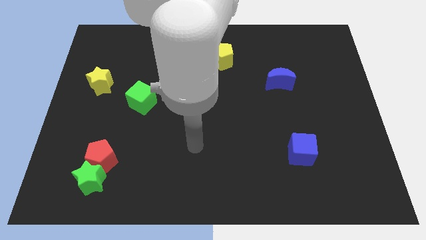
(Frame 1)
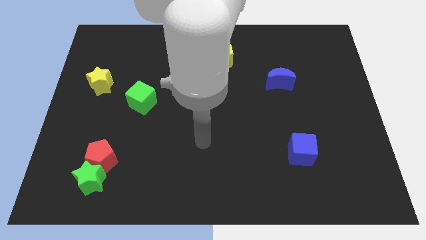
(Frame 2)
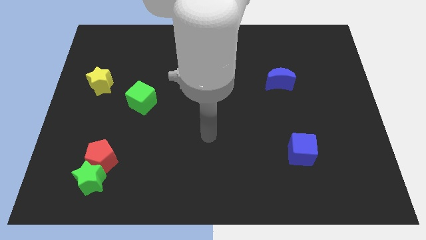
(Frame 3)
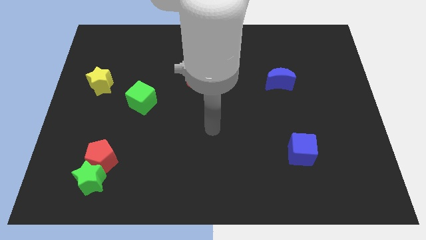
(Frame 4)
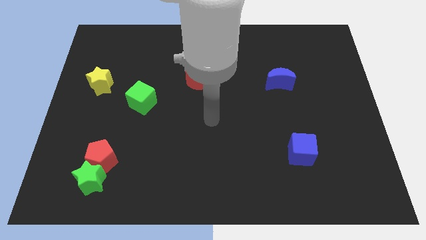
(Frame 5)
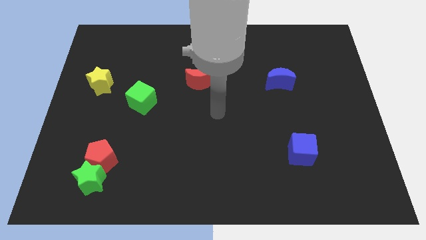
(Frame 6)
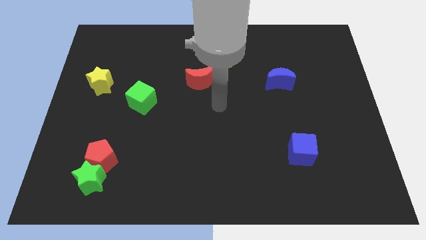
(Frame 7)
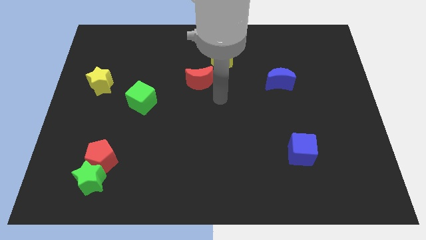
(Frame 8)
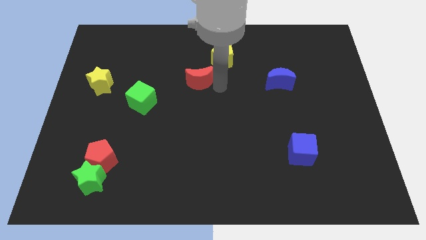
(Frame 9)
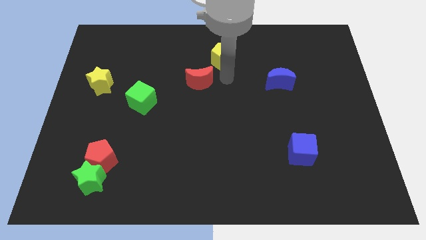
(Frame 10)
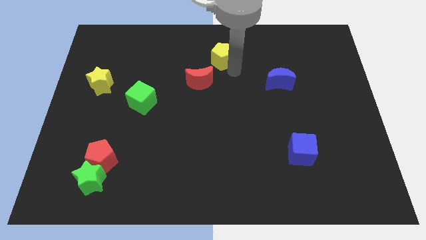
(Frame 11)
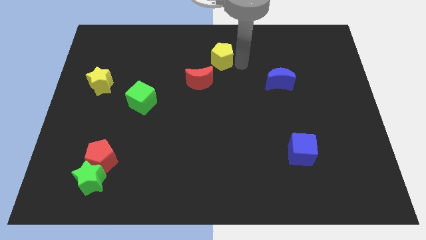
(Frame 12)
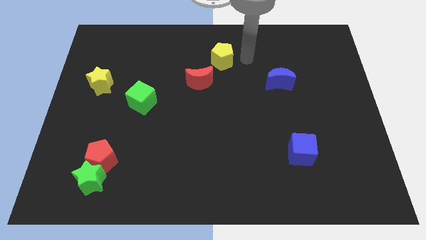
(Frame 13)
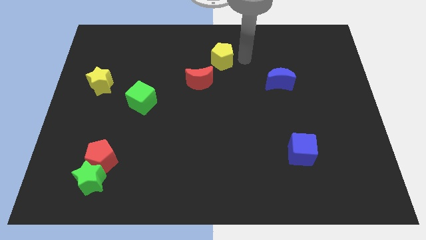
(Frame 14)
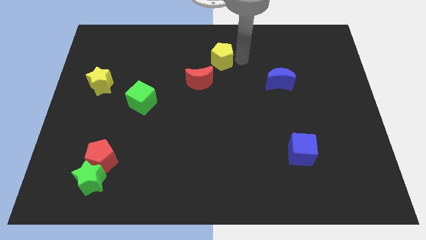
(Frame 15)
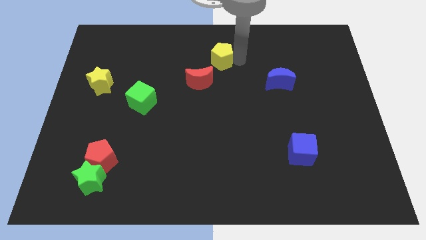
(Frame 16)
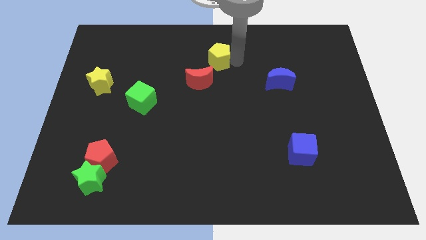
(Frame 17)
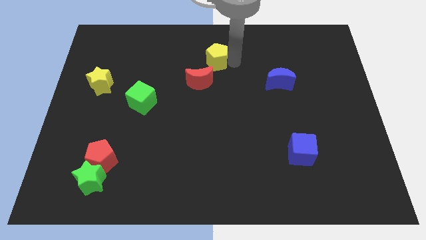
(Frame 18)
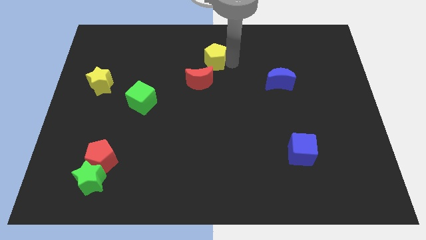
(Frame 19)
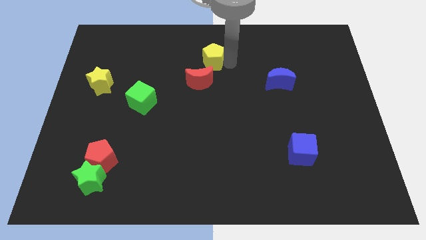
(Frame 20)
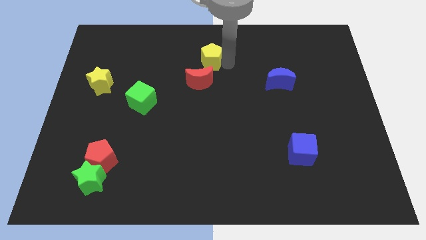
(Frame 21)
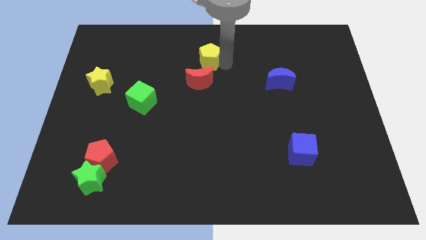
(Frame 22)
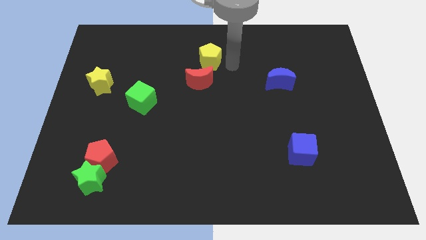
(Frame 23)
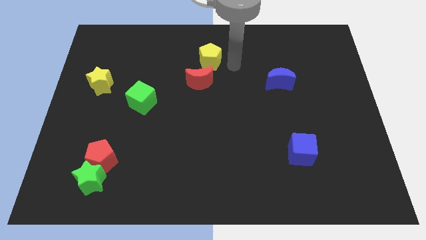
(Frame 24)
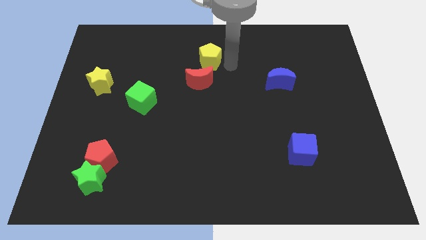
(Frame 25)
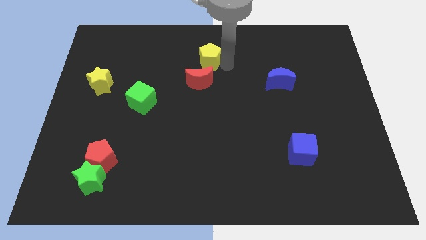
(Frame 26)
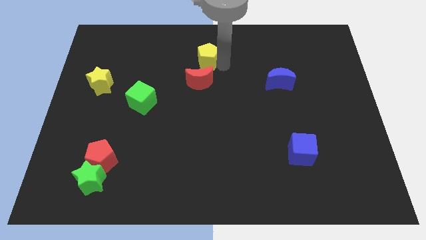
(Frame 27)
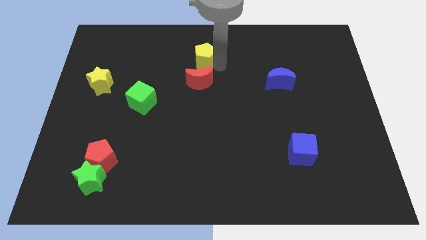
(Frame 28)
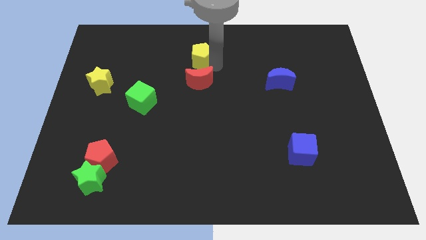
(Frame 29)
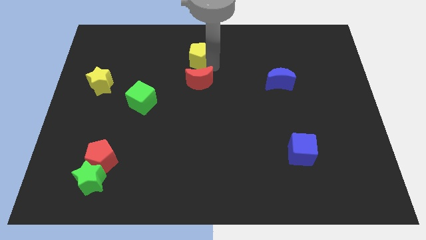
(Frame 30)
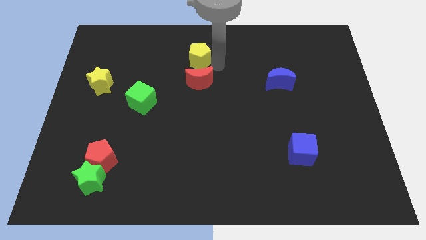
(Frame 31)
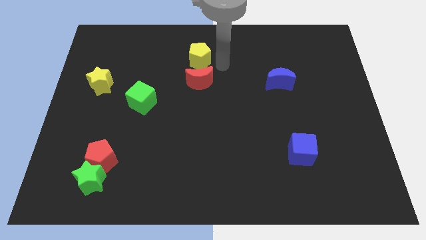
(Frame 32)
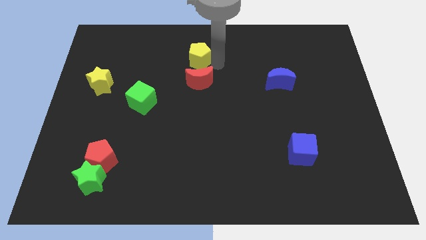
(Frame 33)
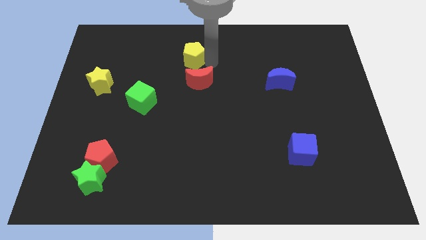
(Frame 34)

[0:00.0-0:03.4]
slide the yellow pentagon a little bit to the left

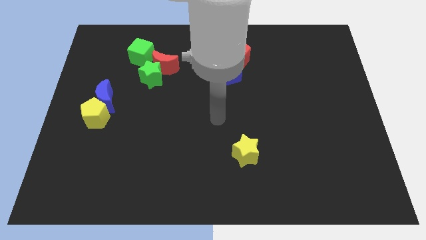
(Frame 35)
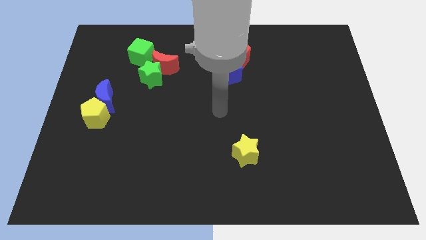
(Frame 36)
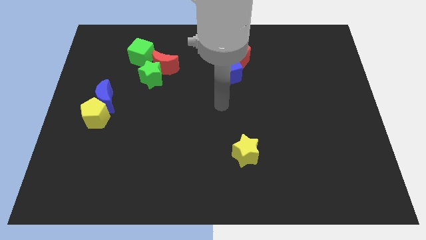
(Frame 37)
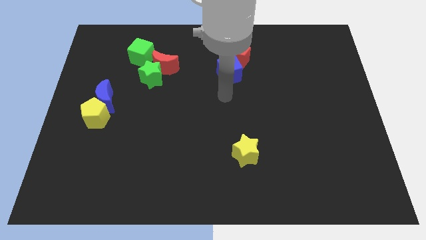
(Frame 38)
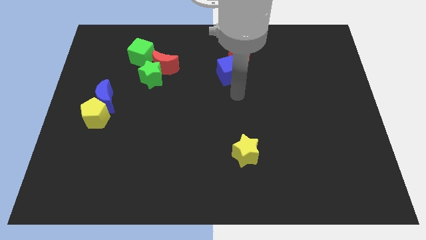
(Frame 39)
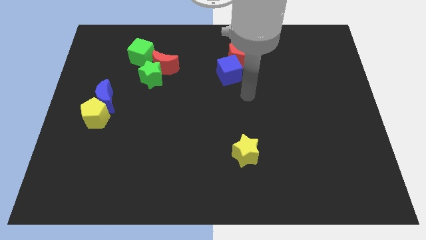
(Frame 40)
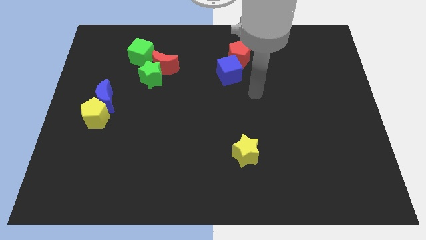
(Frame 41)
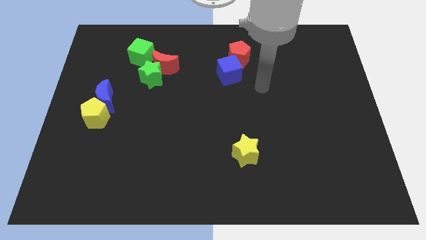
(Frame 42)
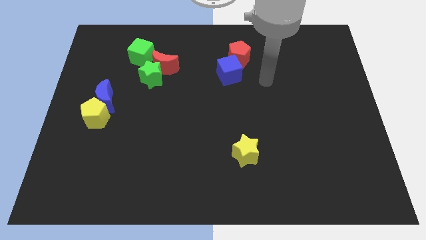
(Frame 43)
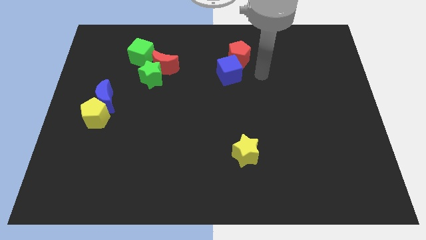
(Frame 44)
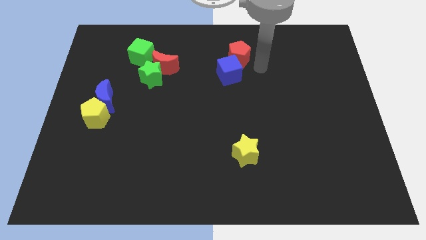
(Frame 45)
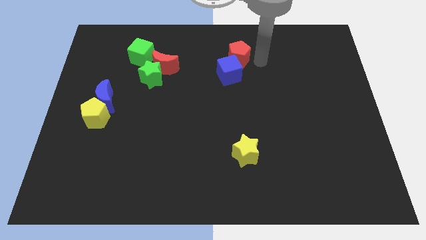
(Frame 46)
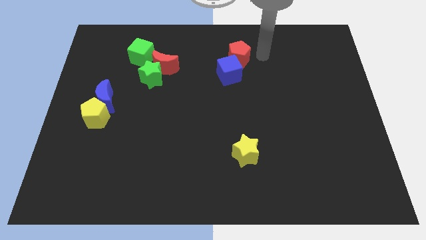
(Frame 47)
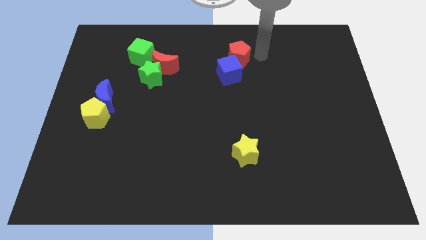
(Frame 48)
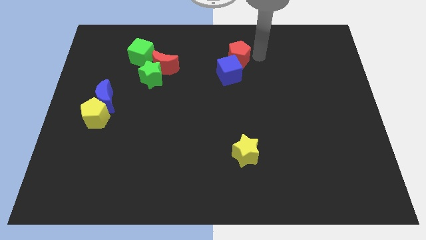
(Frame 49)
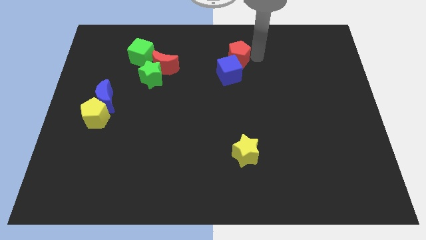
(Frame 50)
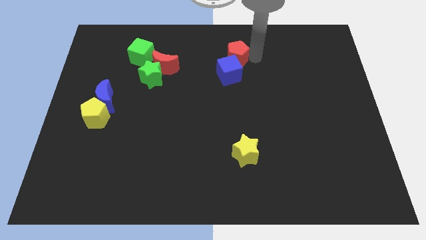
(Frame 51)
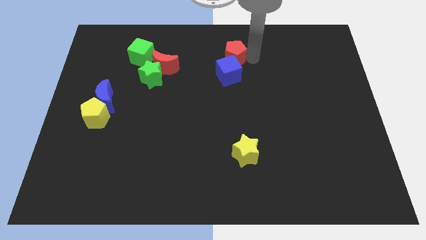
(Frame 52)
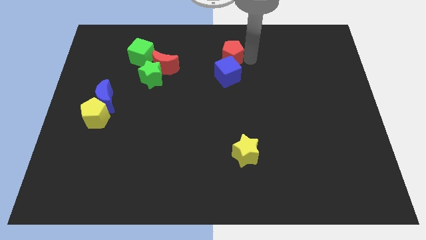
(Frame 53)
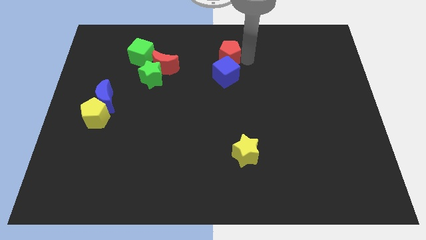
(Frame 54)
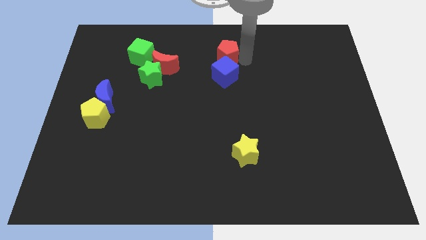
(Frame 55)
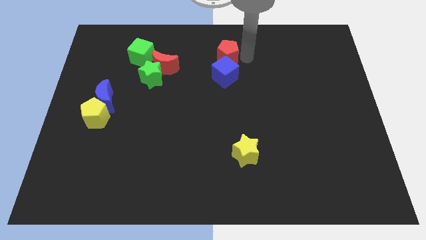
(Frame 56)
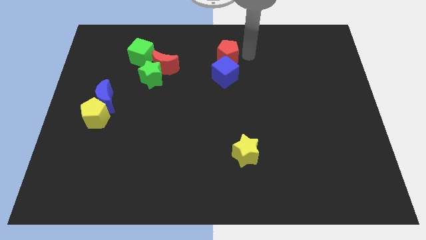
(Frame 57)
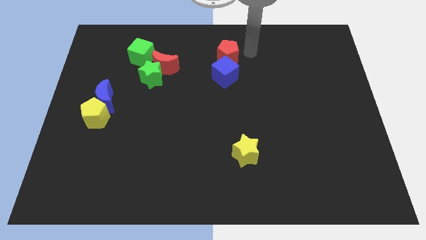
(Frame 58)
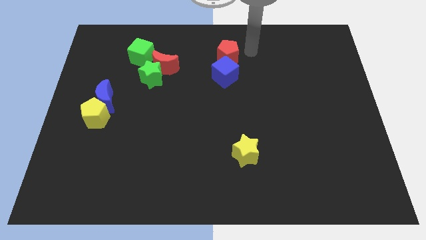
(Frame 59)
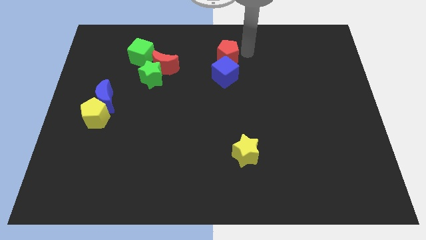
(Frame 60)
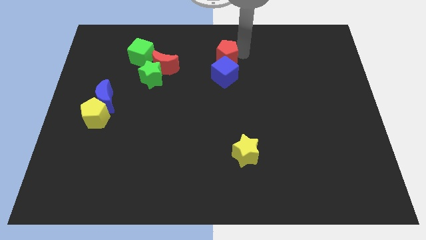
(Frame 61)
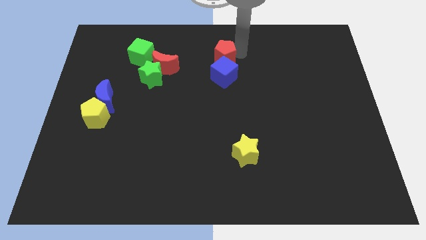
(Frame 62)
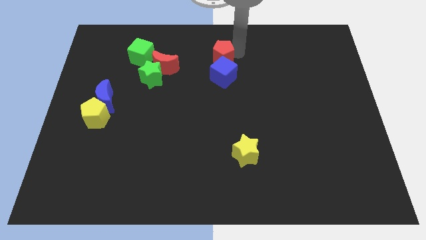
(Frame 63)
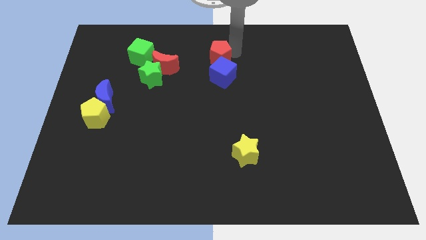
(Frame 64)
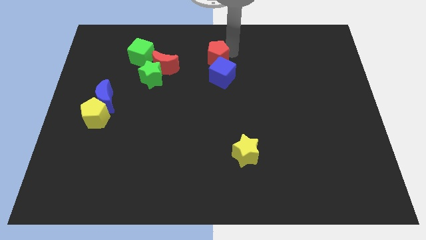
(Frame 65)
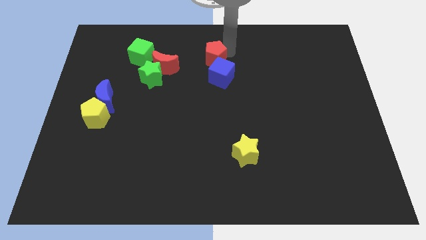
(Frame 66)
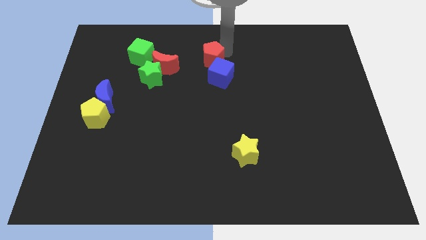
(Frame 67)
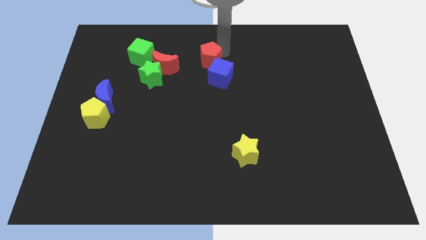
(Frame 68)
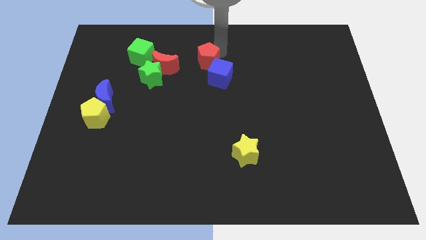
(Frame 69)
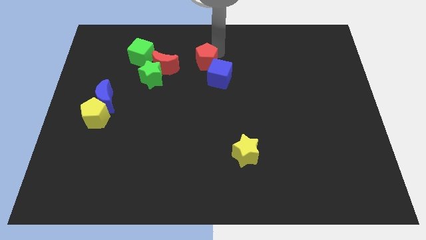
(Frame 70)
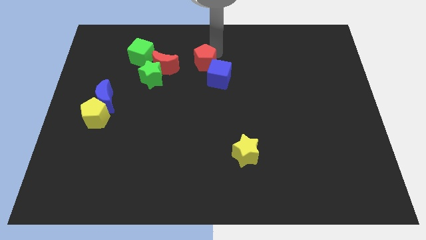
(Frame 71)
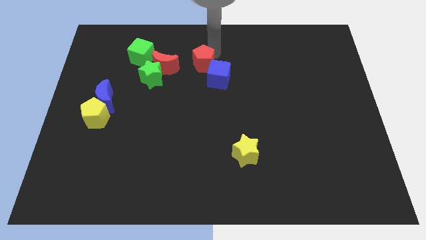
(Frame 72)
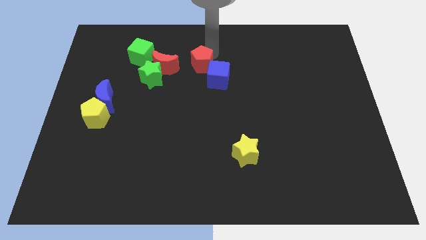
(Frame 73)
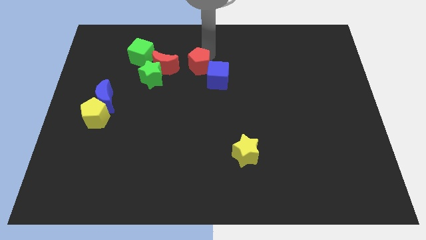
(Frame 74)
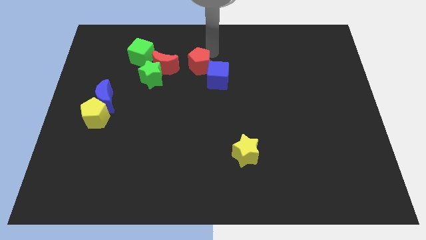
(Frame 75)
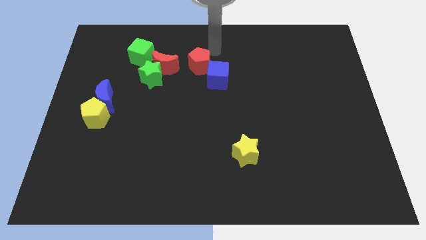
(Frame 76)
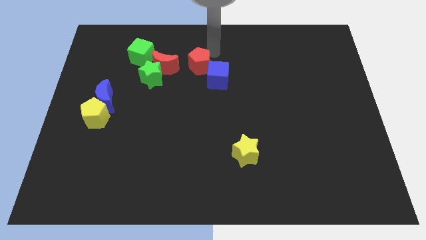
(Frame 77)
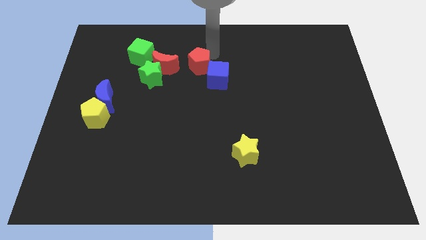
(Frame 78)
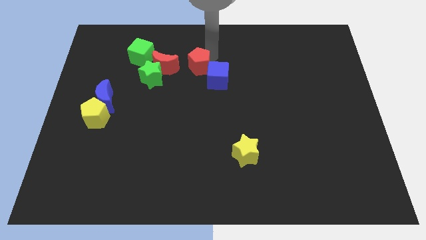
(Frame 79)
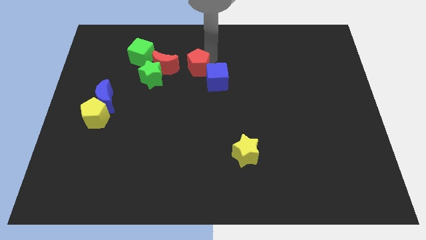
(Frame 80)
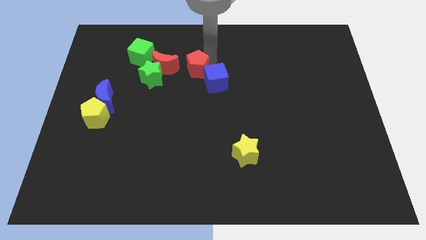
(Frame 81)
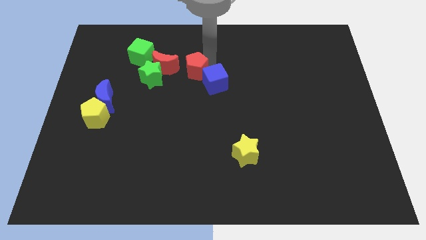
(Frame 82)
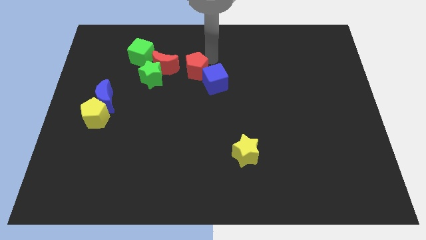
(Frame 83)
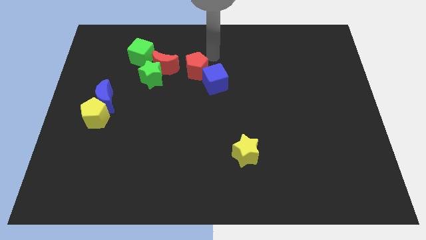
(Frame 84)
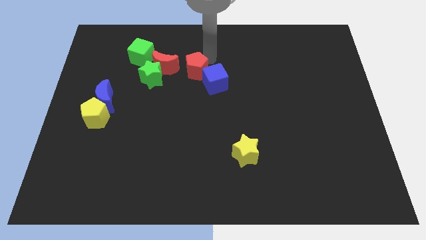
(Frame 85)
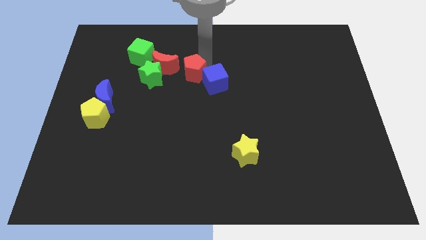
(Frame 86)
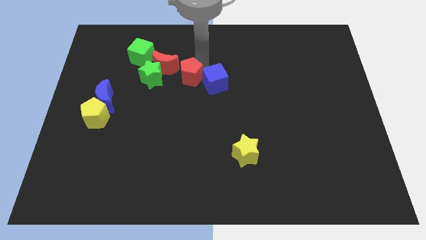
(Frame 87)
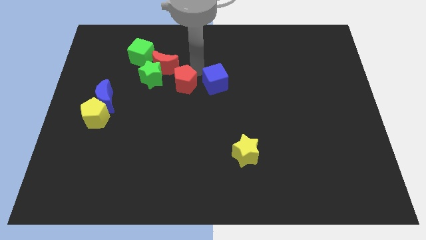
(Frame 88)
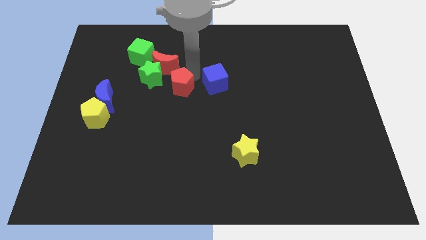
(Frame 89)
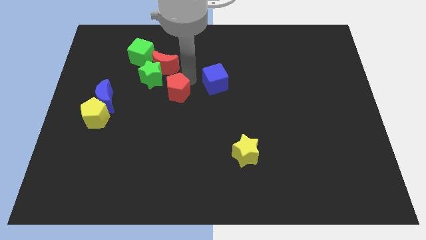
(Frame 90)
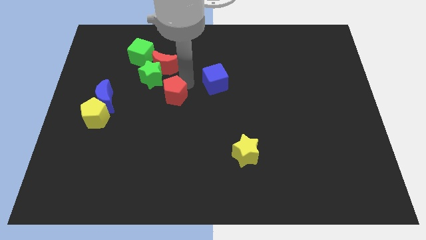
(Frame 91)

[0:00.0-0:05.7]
move the red pentagon diagonally downwards and to the left
